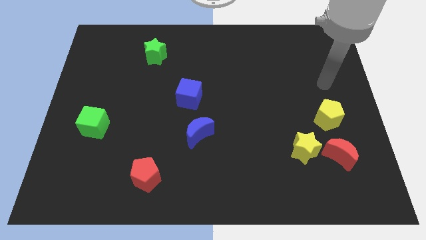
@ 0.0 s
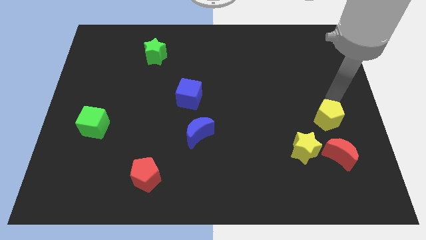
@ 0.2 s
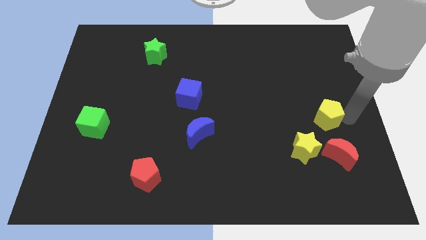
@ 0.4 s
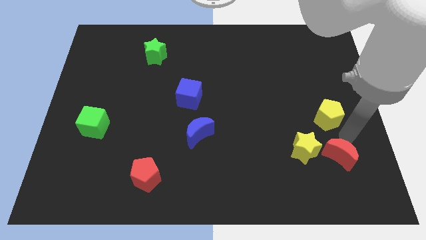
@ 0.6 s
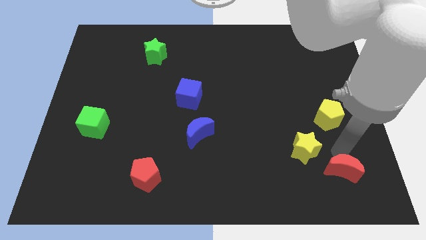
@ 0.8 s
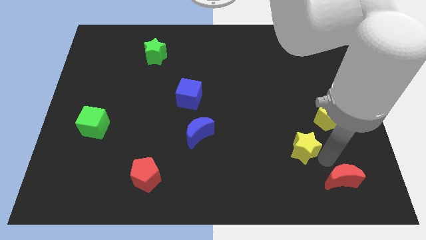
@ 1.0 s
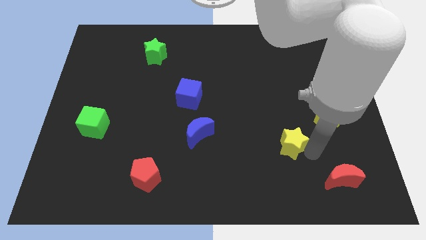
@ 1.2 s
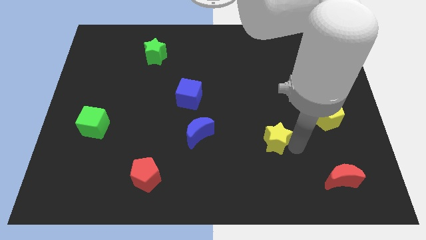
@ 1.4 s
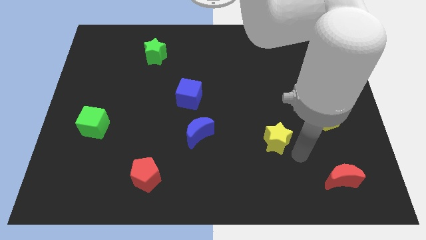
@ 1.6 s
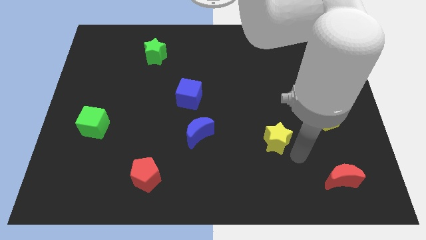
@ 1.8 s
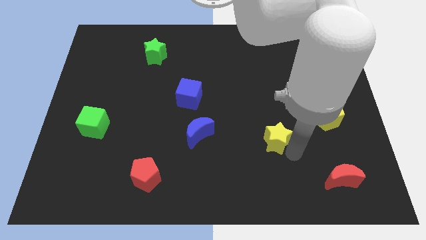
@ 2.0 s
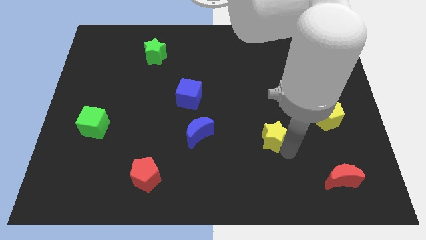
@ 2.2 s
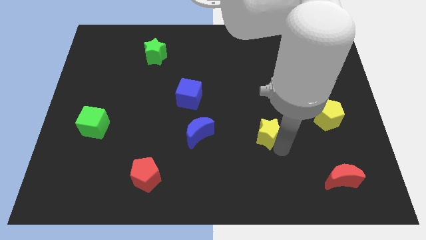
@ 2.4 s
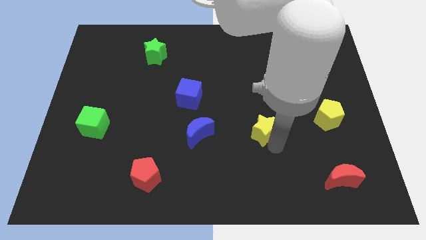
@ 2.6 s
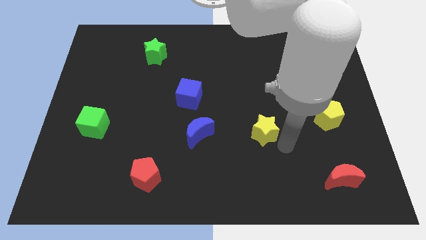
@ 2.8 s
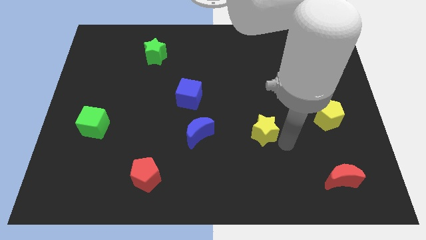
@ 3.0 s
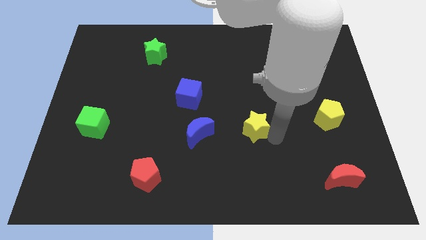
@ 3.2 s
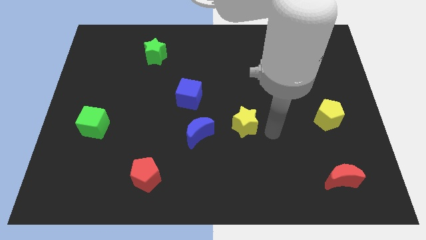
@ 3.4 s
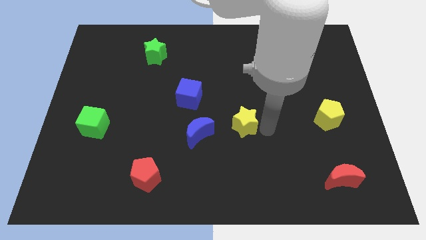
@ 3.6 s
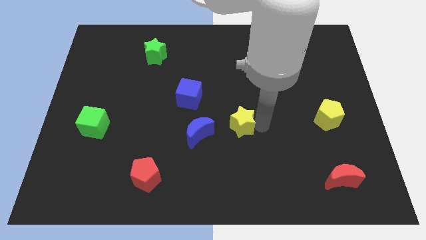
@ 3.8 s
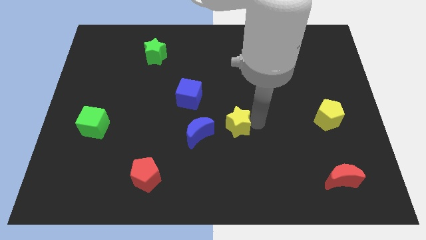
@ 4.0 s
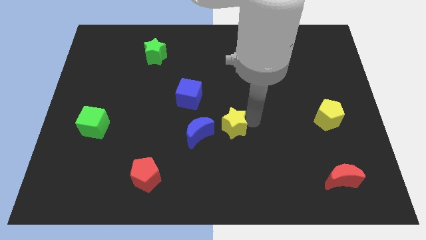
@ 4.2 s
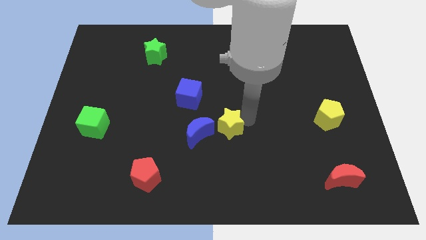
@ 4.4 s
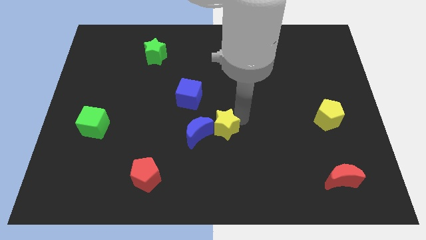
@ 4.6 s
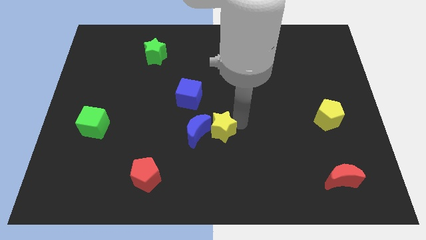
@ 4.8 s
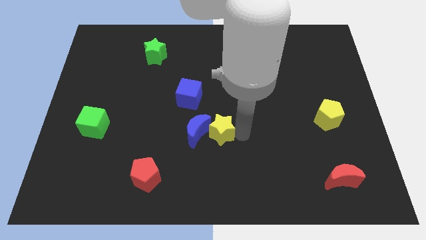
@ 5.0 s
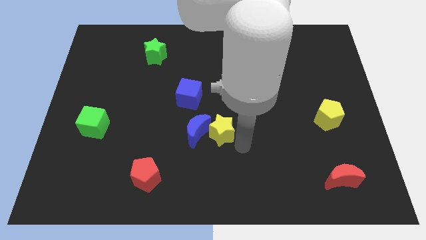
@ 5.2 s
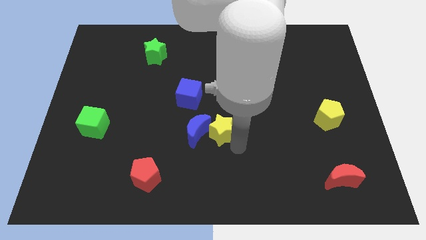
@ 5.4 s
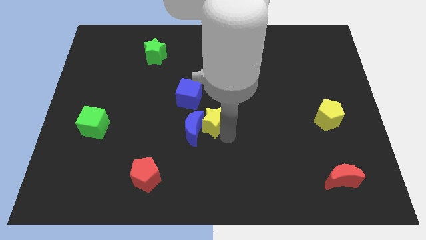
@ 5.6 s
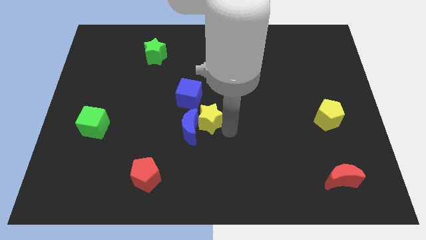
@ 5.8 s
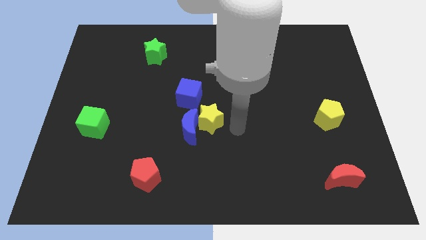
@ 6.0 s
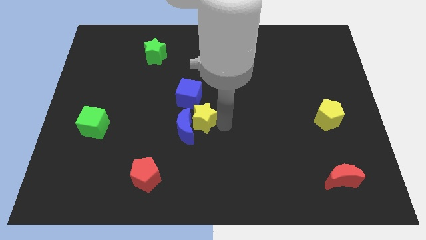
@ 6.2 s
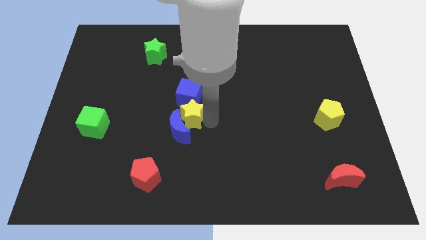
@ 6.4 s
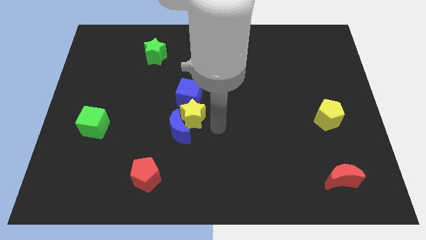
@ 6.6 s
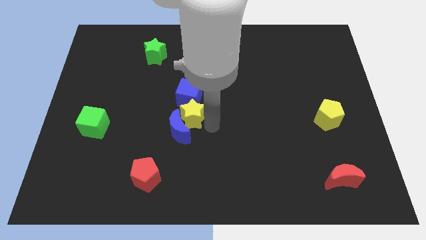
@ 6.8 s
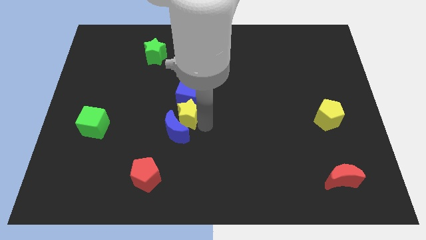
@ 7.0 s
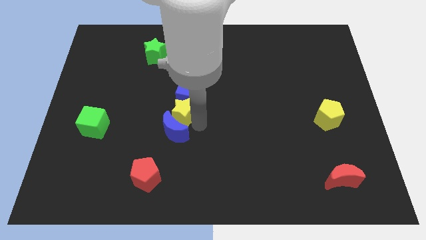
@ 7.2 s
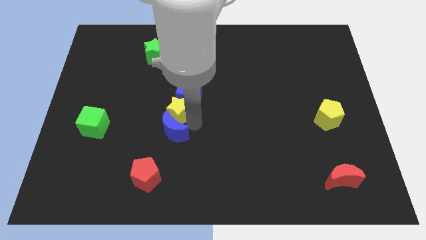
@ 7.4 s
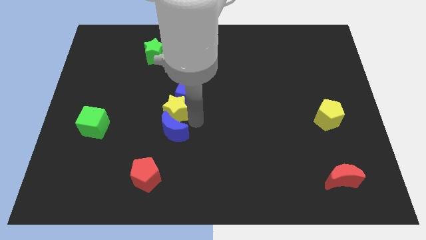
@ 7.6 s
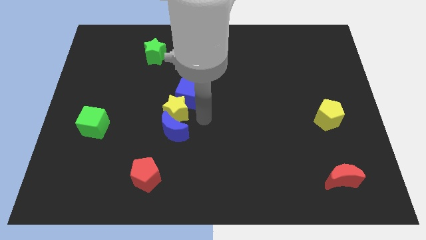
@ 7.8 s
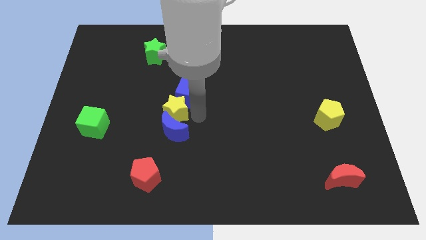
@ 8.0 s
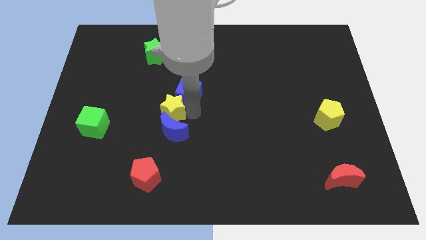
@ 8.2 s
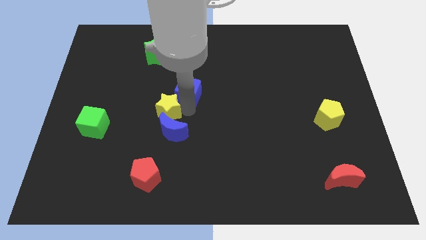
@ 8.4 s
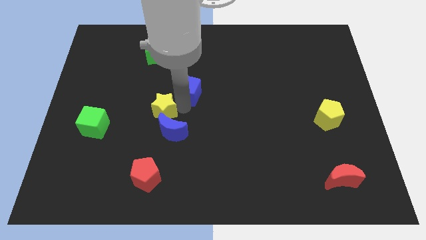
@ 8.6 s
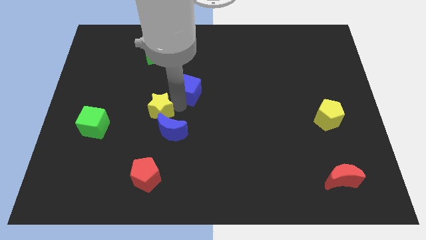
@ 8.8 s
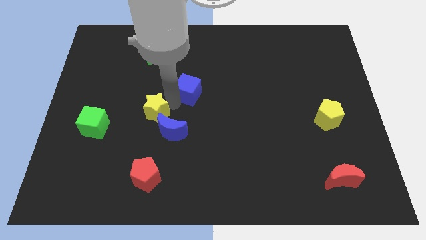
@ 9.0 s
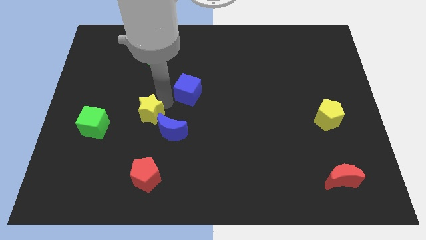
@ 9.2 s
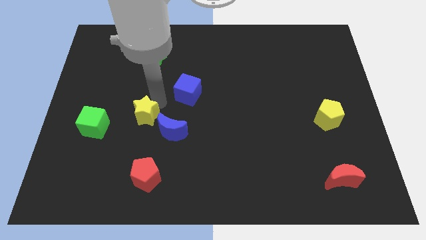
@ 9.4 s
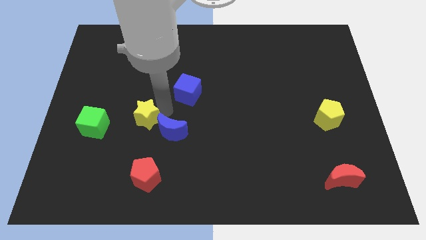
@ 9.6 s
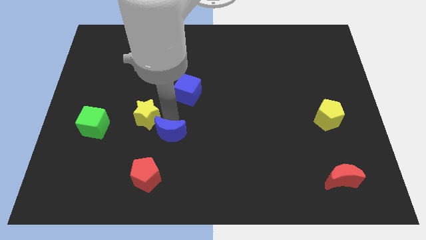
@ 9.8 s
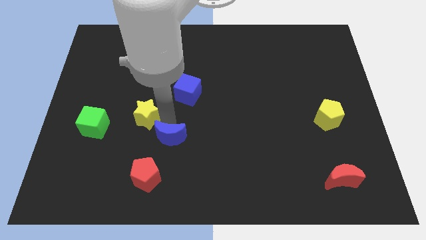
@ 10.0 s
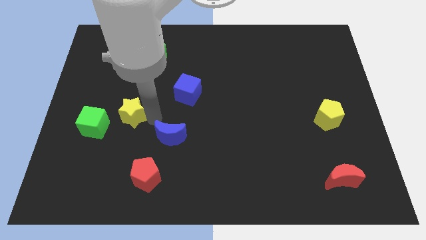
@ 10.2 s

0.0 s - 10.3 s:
slide the yellow star to the top right side of the green cube

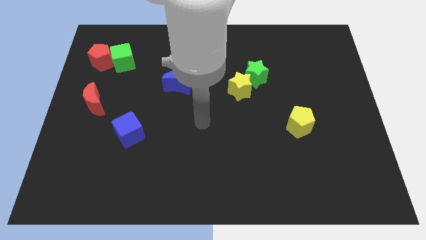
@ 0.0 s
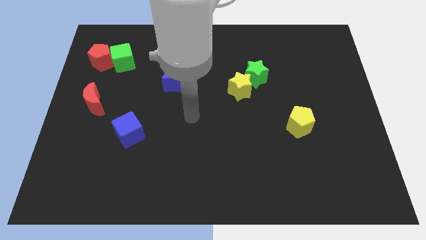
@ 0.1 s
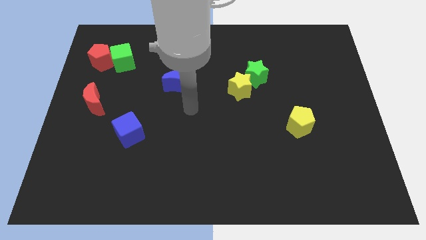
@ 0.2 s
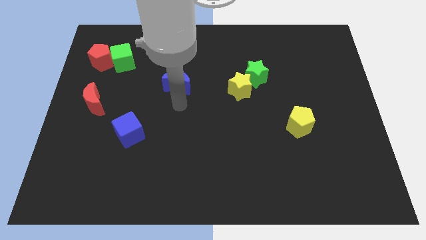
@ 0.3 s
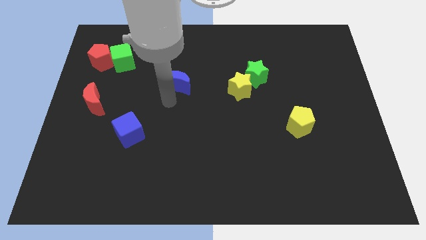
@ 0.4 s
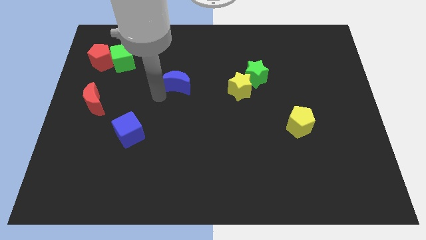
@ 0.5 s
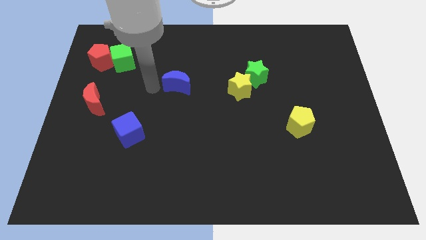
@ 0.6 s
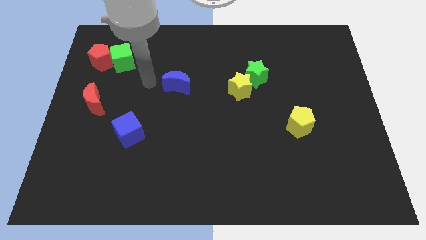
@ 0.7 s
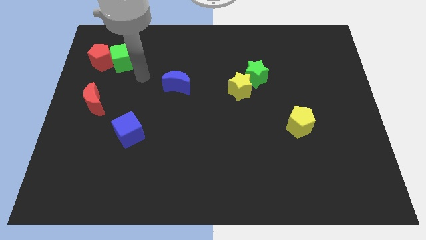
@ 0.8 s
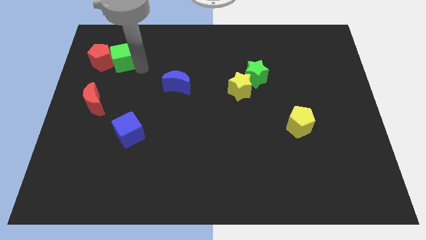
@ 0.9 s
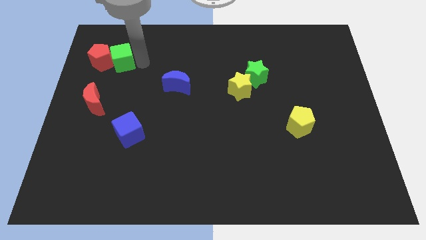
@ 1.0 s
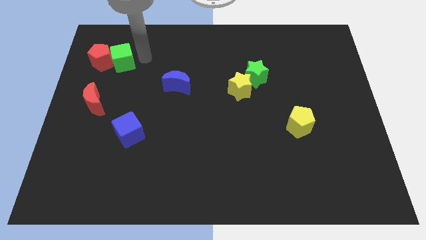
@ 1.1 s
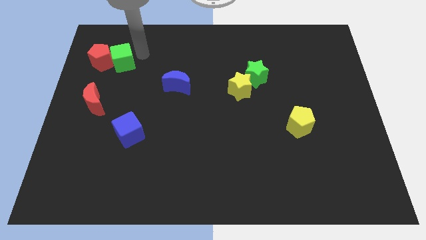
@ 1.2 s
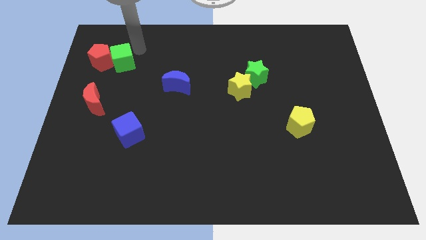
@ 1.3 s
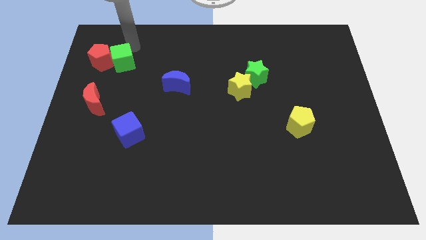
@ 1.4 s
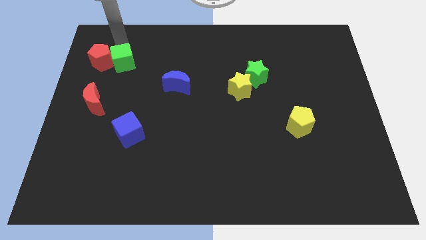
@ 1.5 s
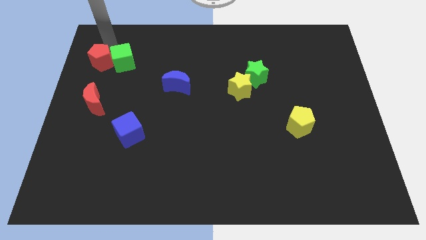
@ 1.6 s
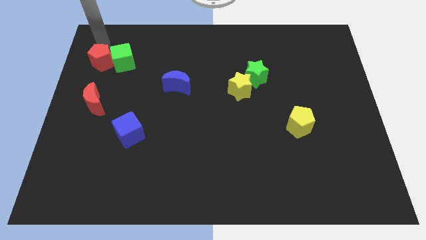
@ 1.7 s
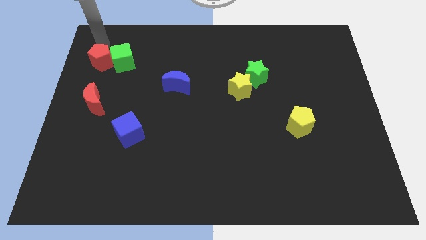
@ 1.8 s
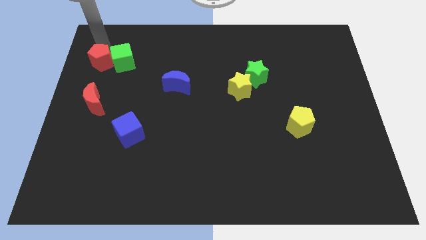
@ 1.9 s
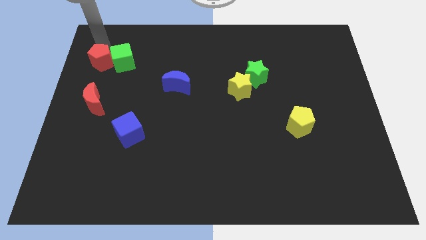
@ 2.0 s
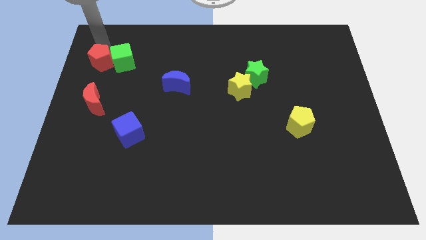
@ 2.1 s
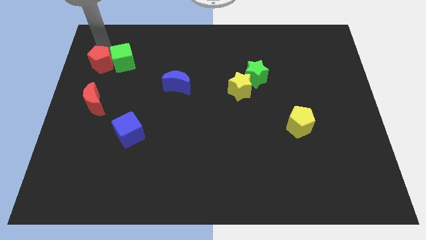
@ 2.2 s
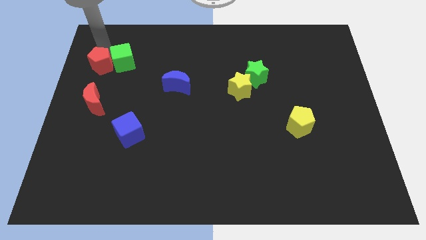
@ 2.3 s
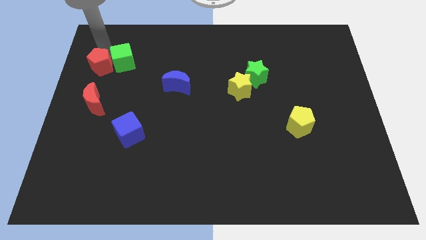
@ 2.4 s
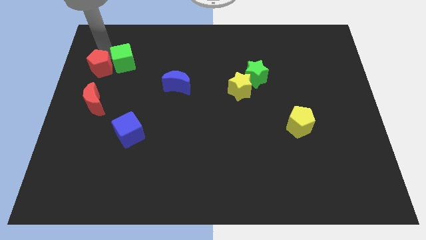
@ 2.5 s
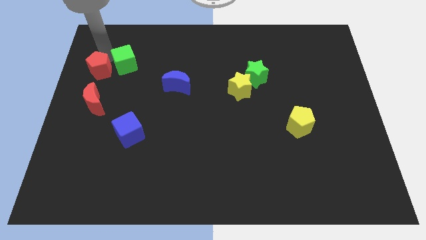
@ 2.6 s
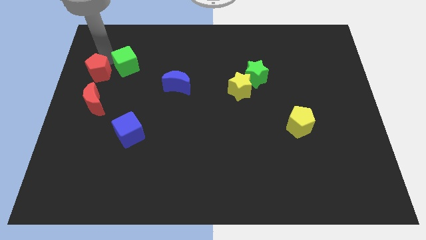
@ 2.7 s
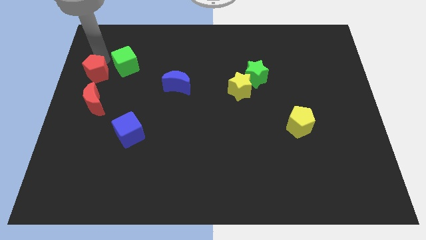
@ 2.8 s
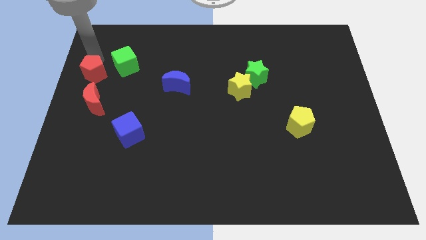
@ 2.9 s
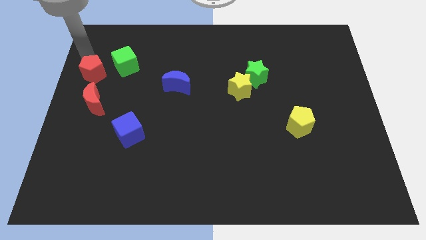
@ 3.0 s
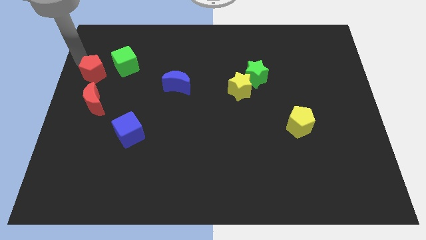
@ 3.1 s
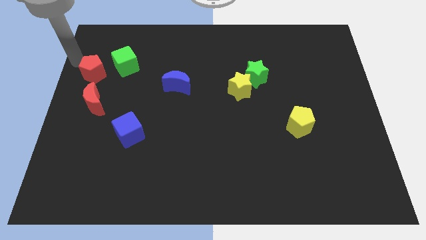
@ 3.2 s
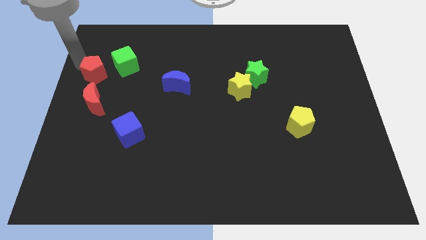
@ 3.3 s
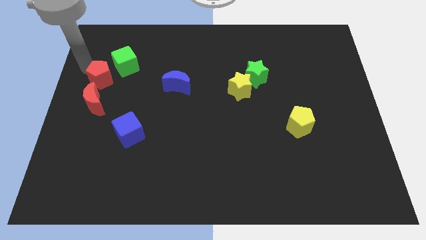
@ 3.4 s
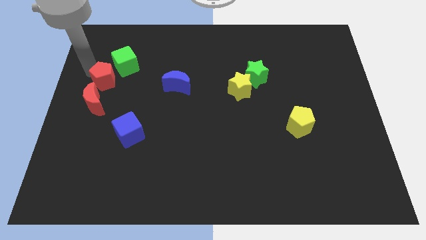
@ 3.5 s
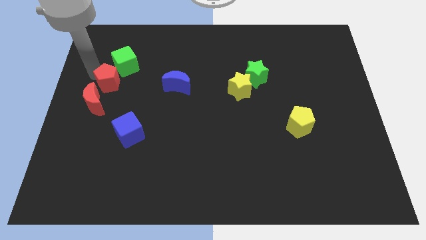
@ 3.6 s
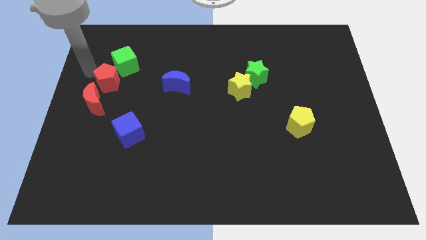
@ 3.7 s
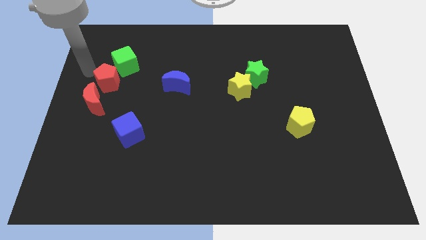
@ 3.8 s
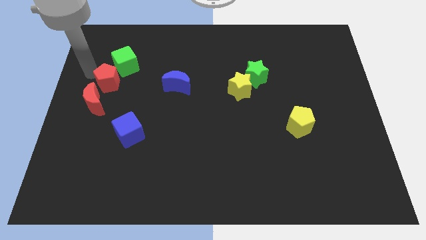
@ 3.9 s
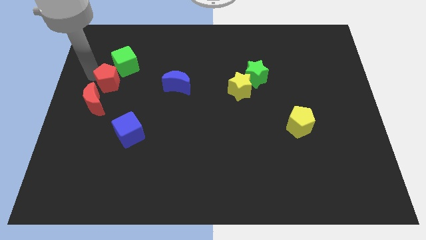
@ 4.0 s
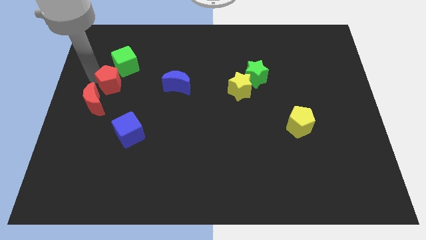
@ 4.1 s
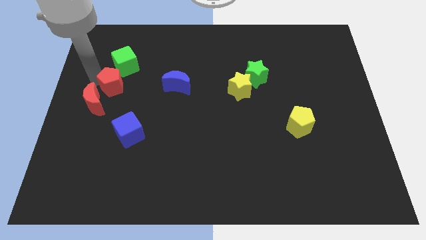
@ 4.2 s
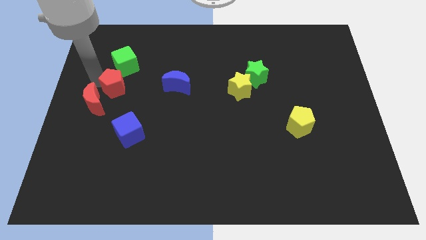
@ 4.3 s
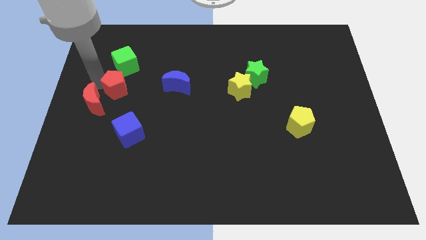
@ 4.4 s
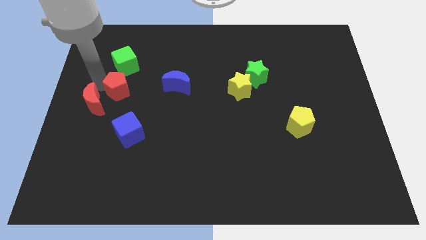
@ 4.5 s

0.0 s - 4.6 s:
move the red pentagon to the top of the blue cube
